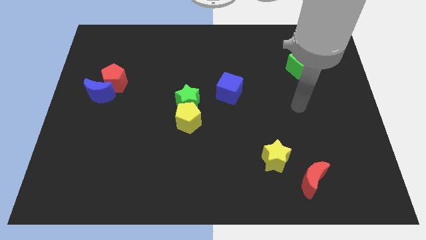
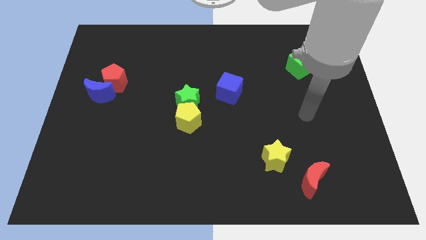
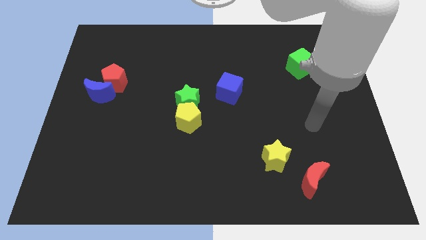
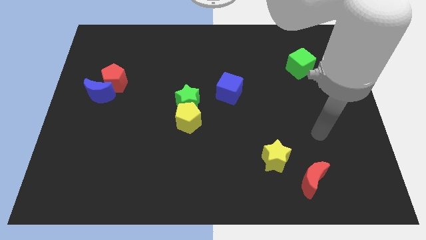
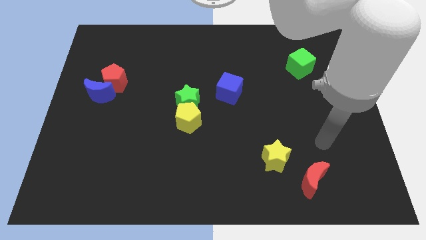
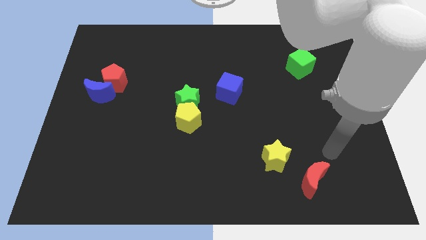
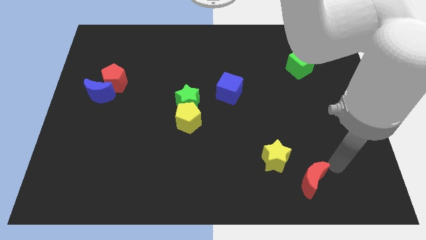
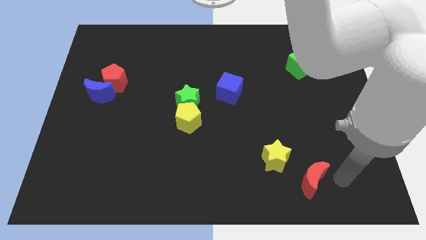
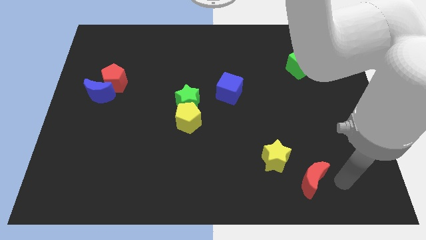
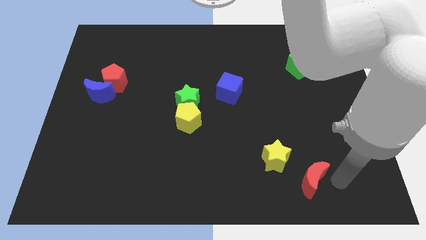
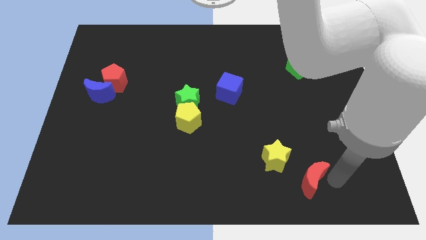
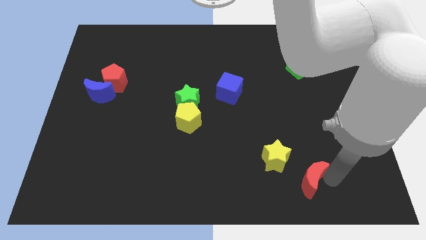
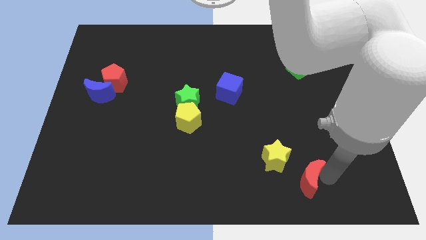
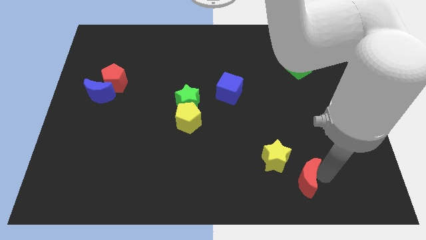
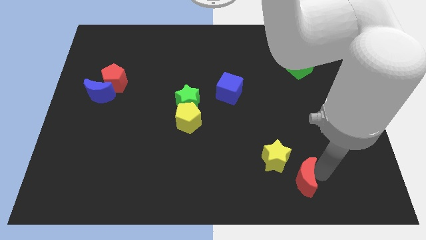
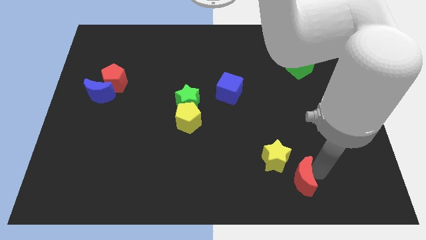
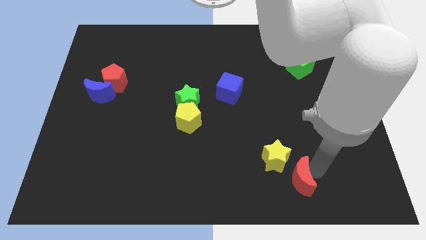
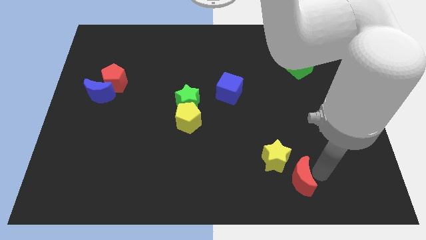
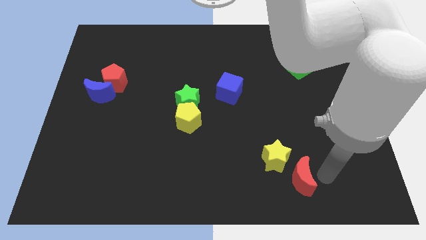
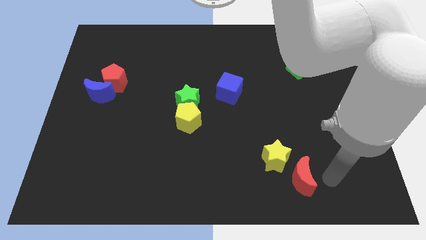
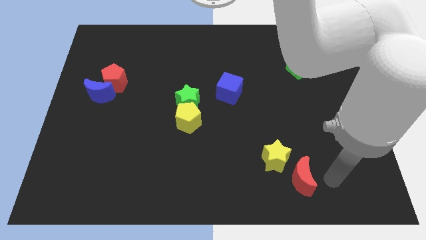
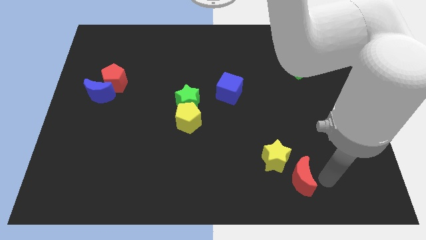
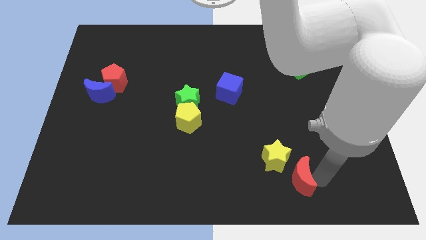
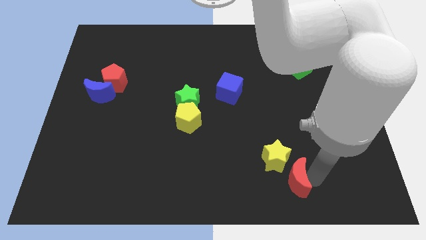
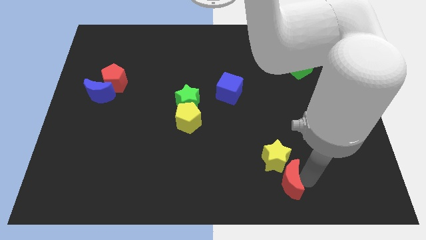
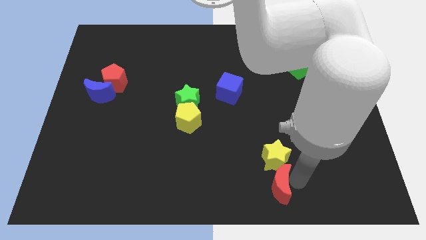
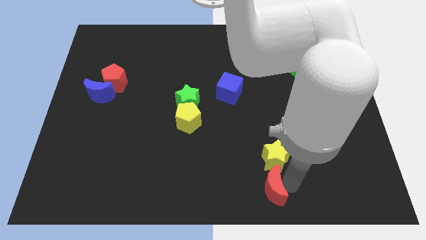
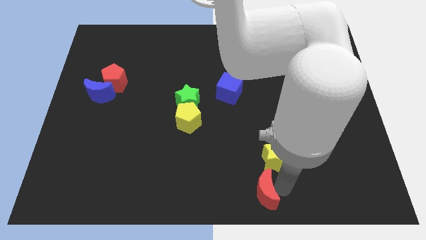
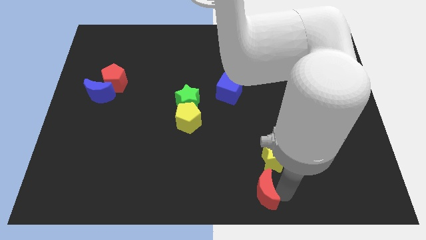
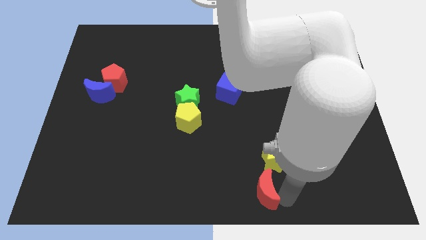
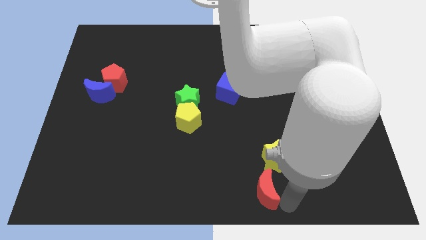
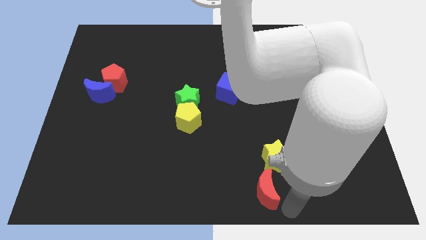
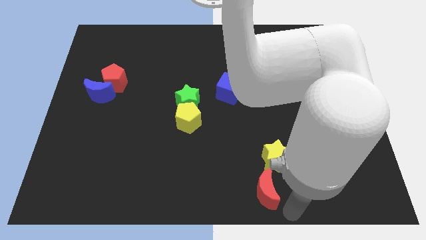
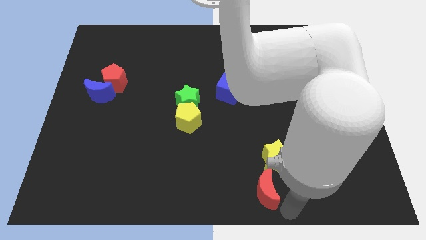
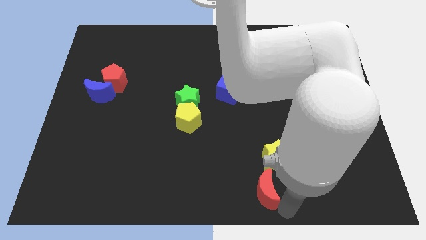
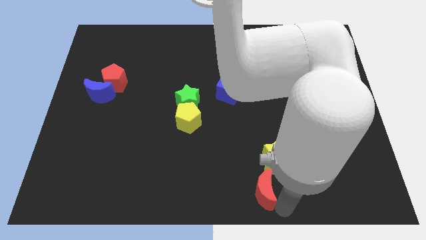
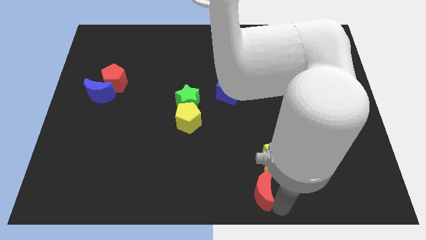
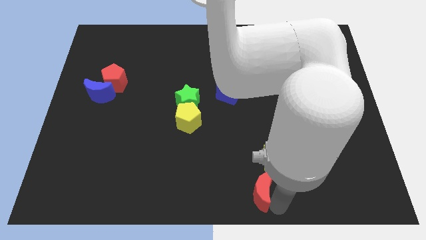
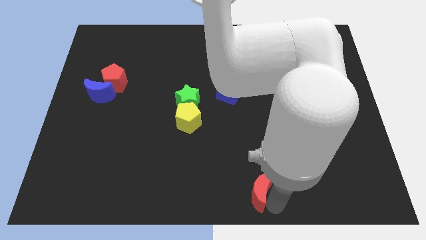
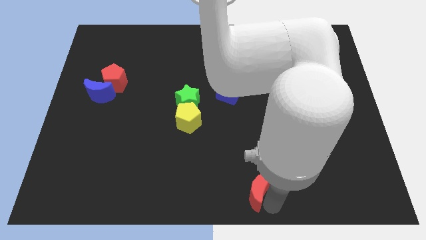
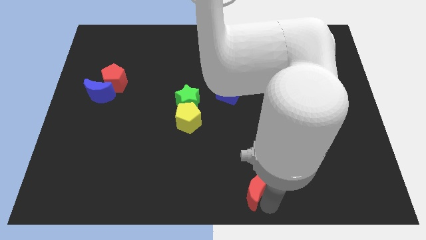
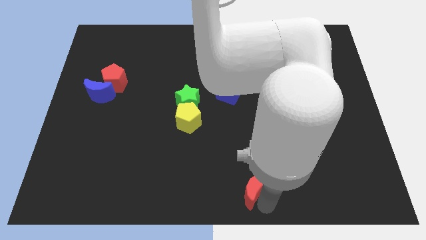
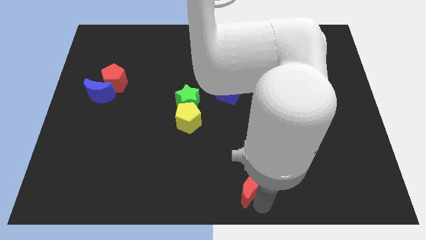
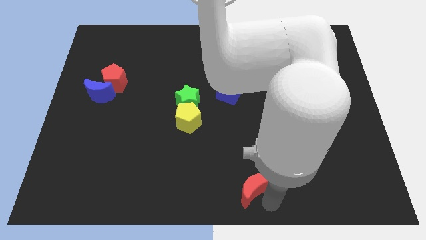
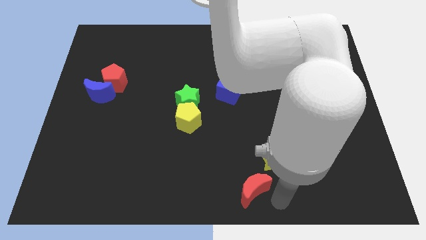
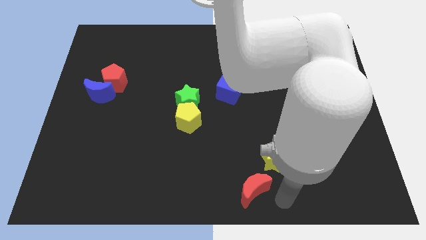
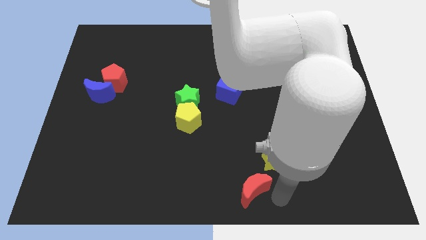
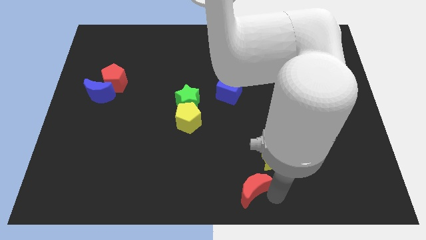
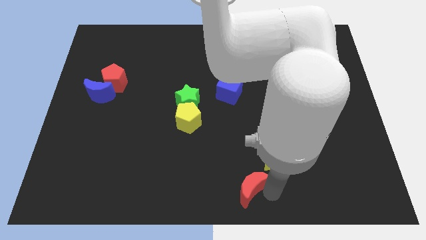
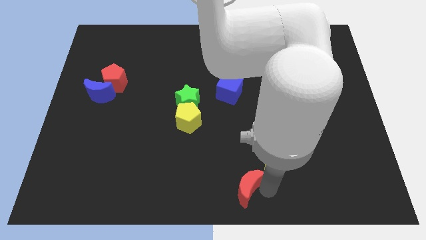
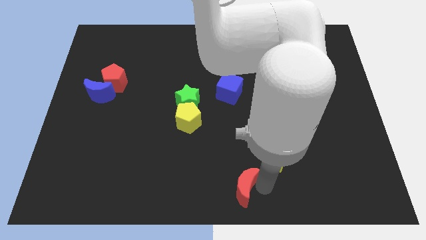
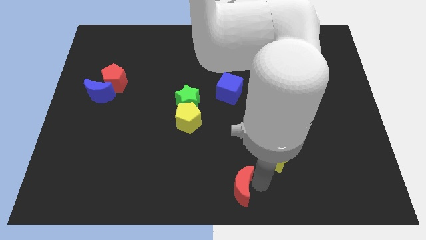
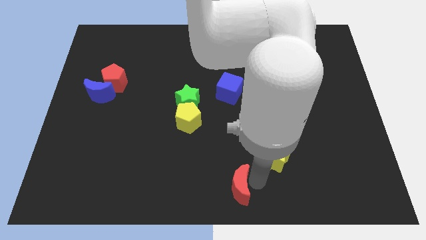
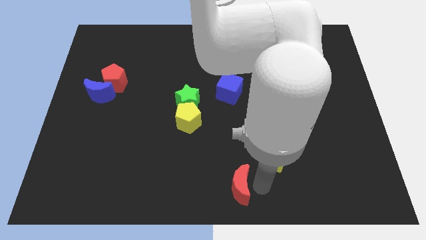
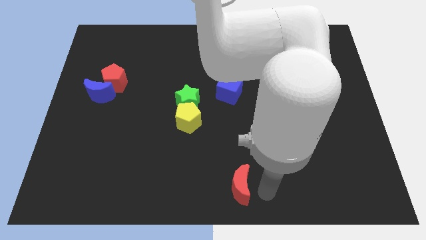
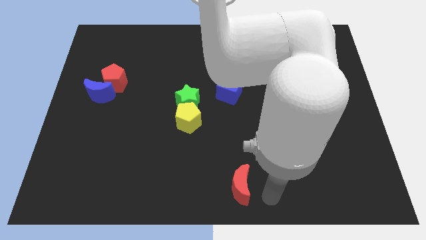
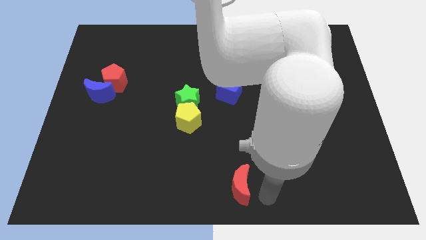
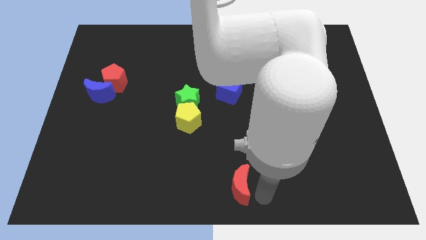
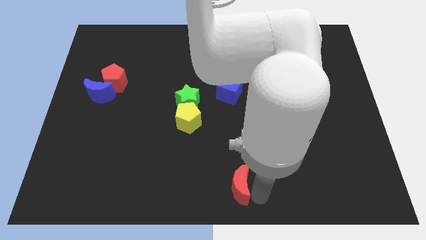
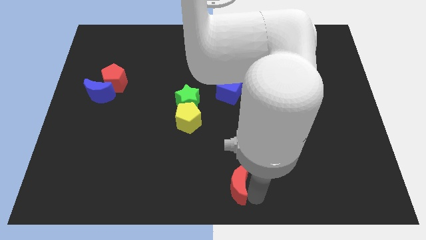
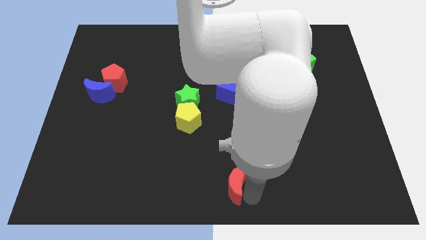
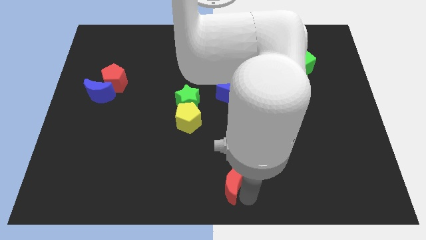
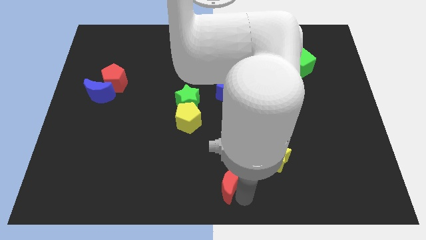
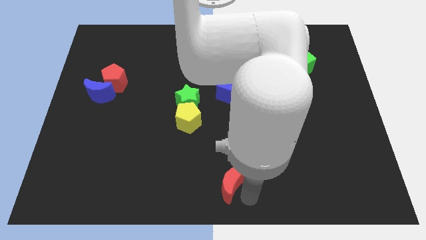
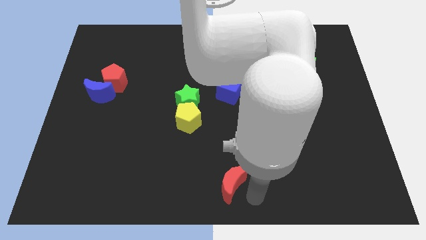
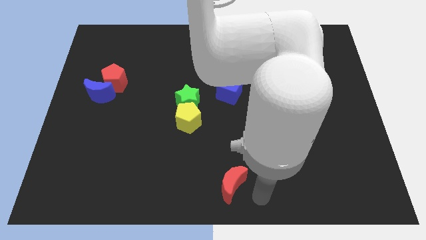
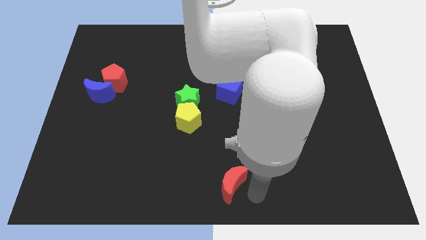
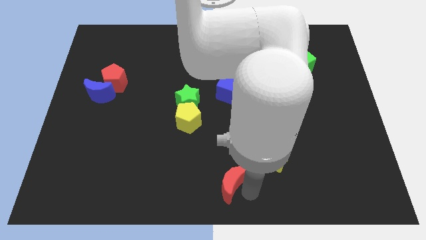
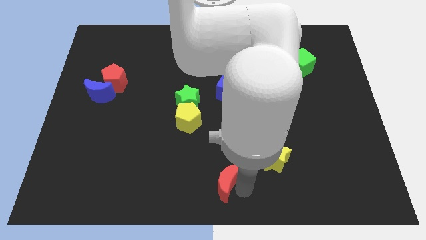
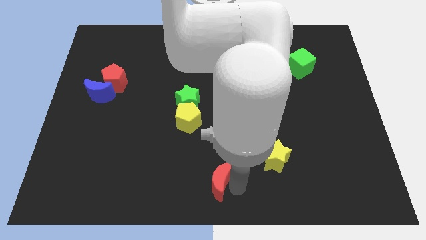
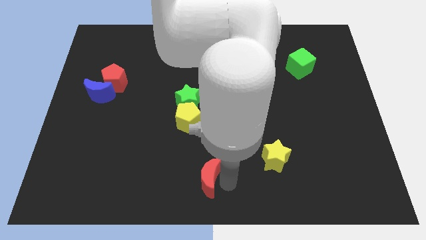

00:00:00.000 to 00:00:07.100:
move the red moon to the left

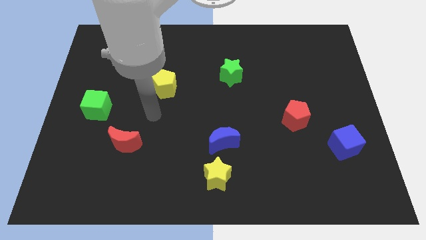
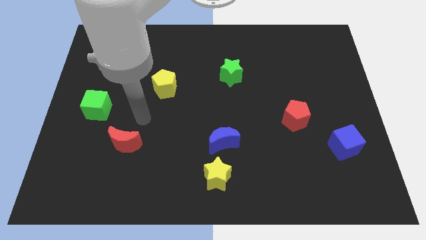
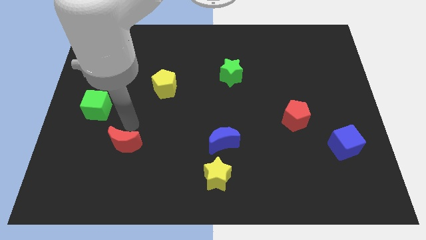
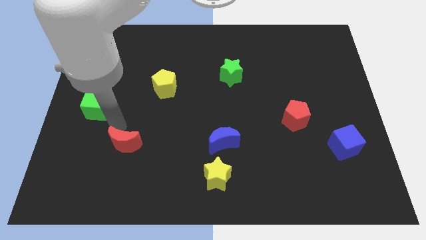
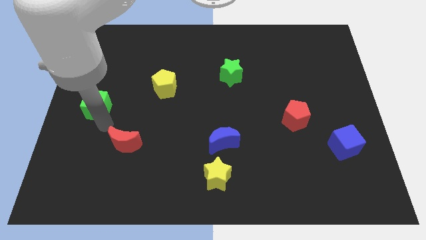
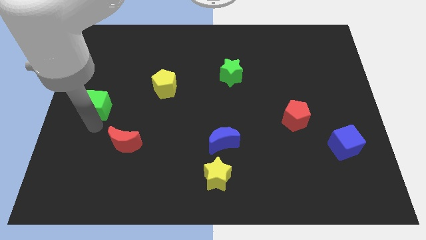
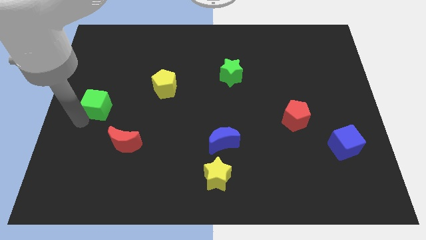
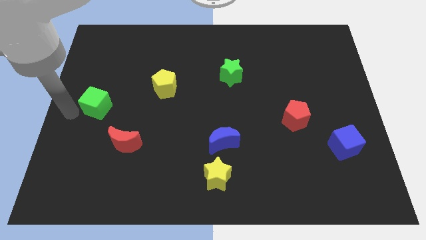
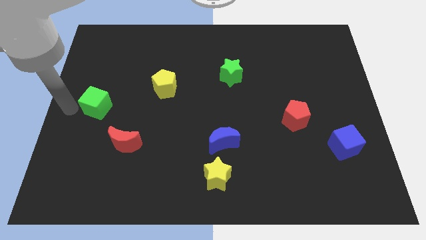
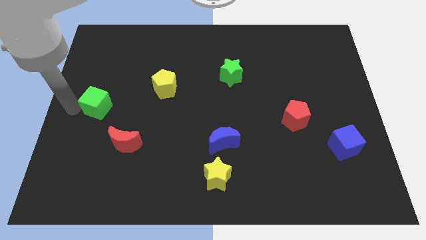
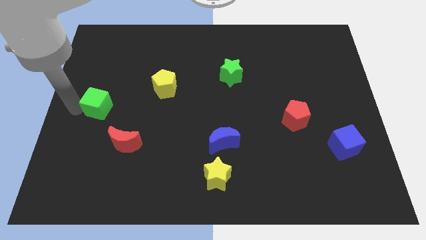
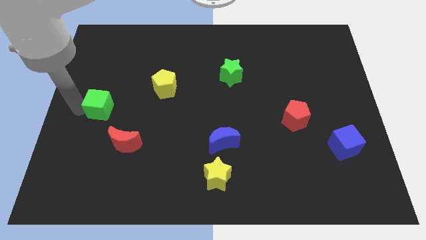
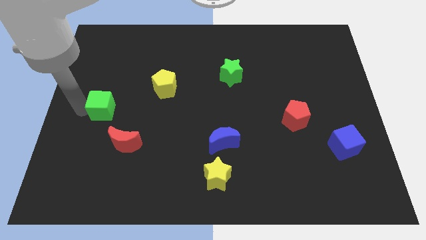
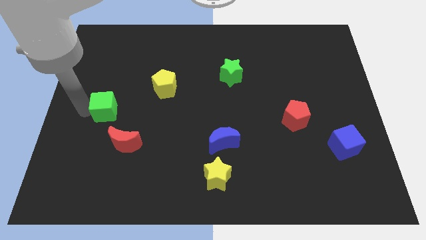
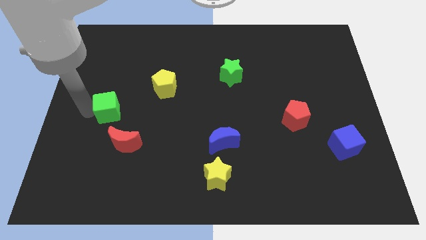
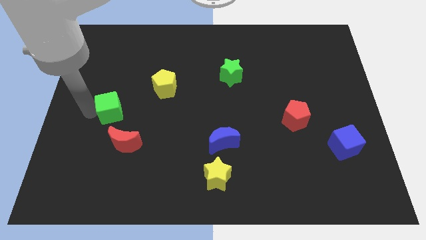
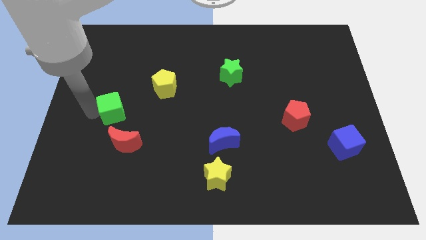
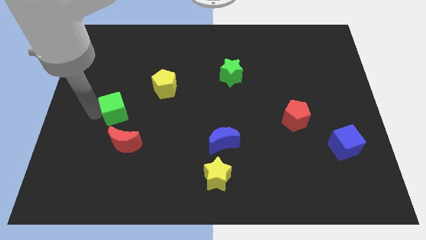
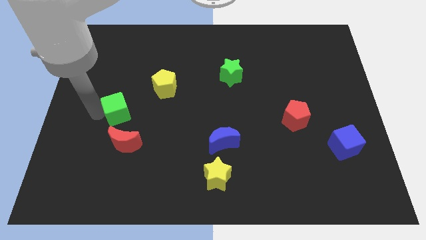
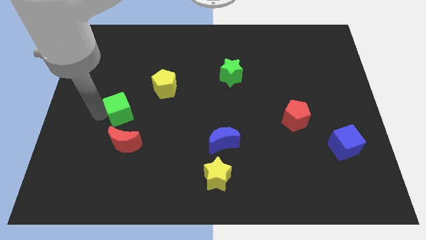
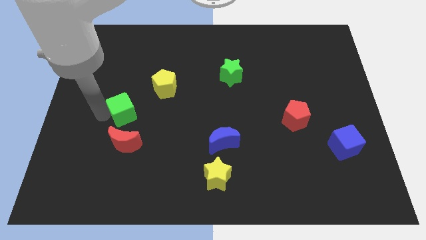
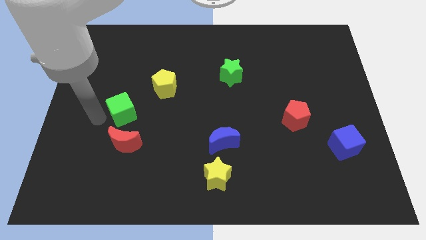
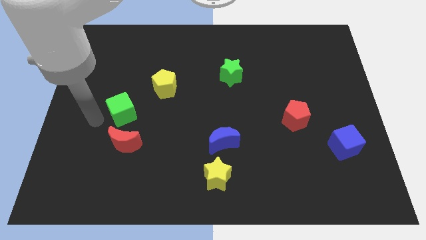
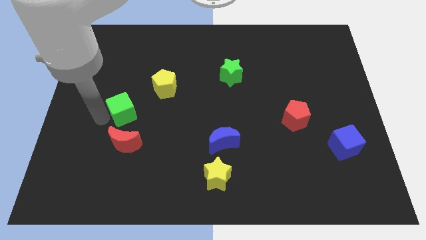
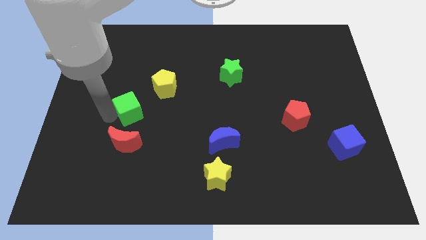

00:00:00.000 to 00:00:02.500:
push the green cube somewhat right
